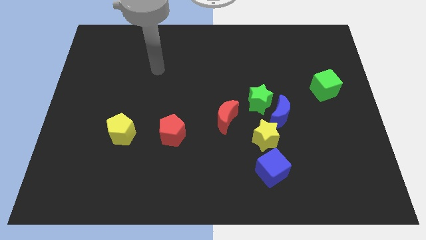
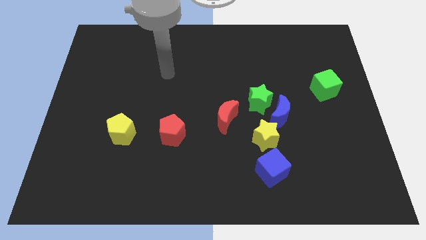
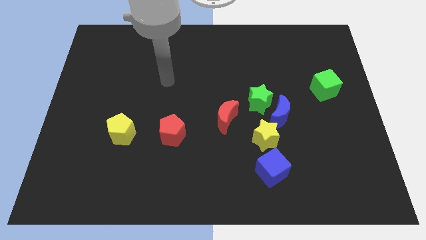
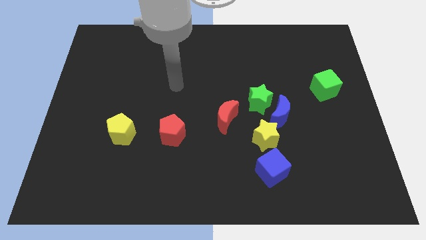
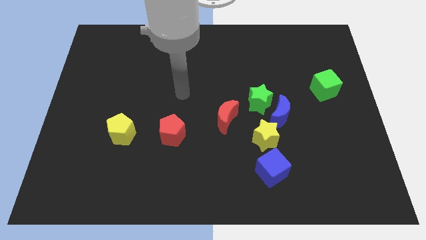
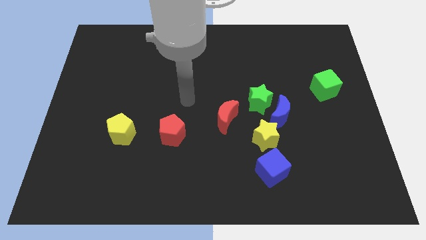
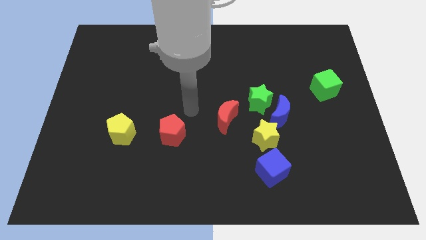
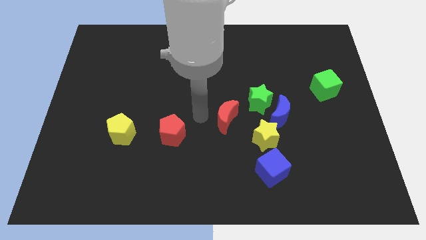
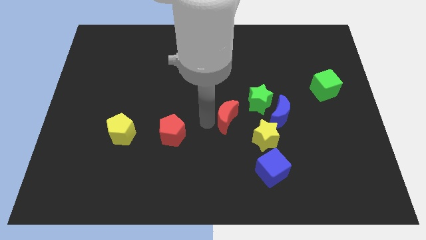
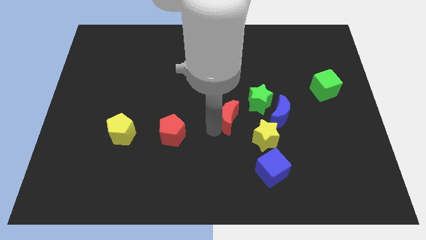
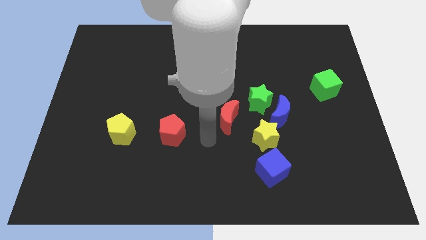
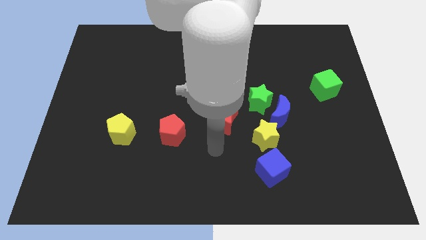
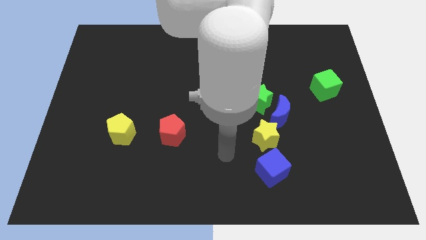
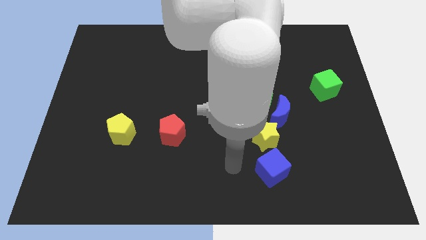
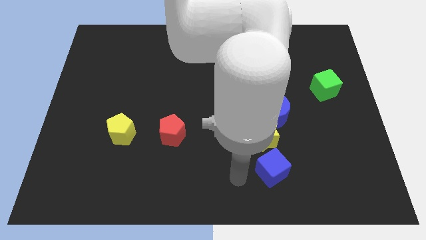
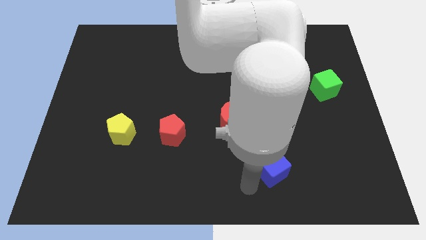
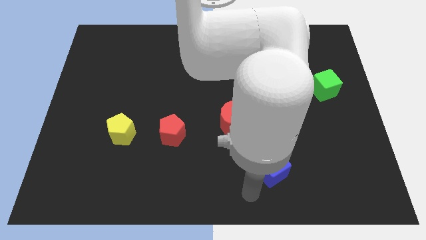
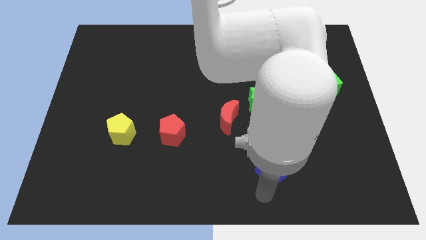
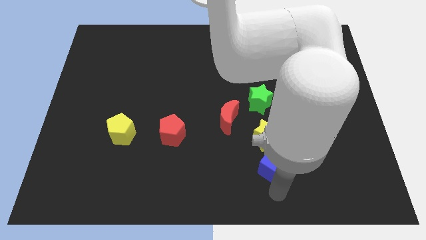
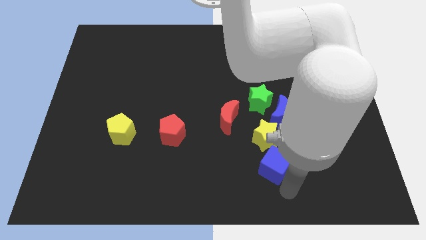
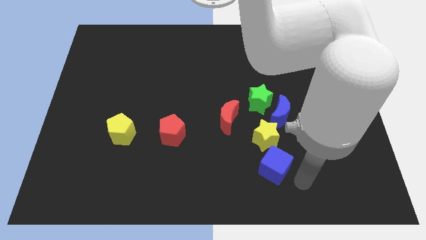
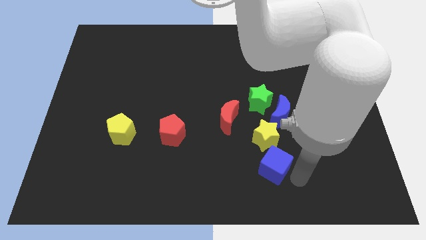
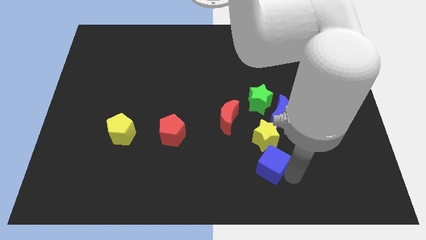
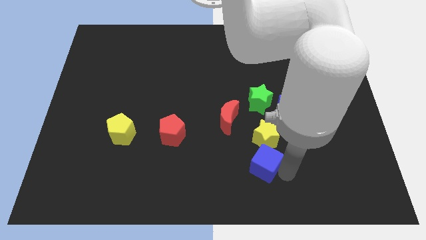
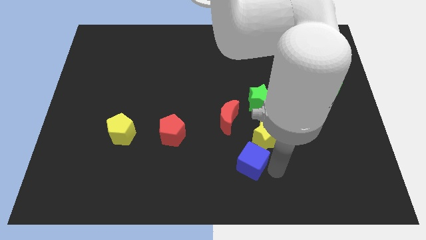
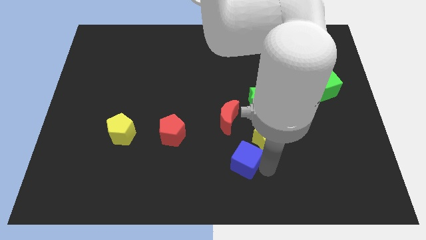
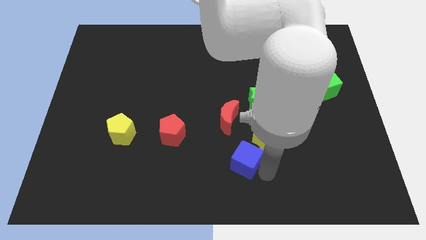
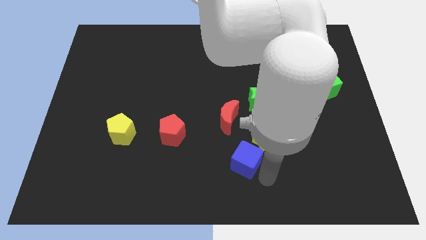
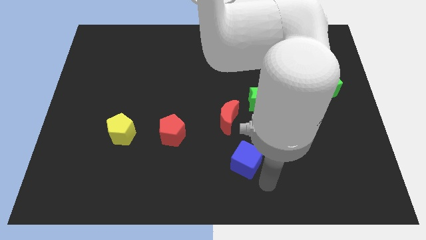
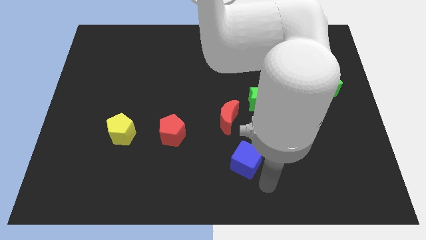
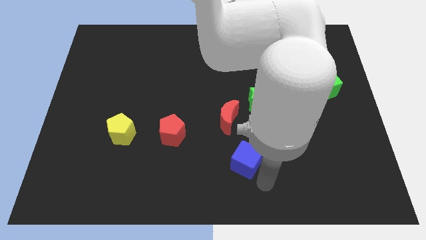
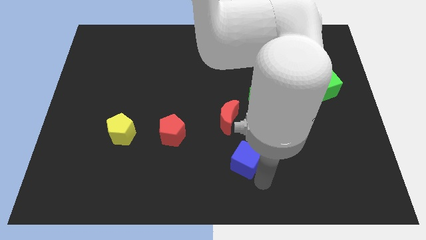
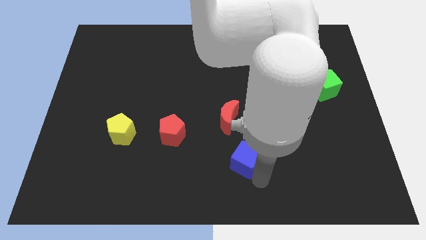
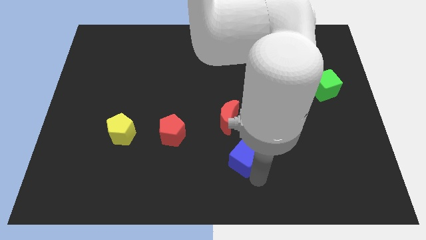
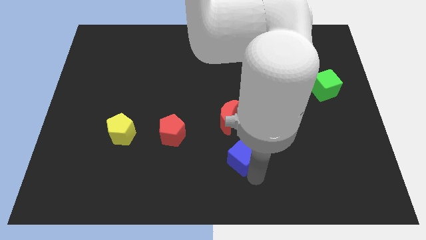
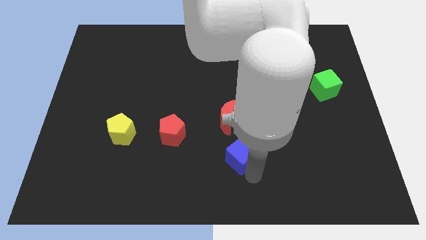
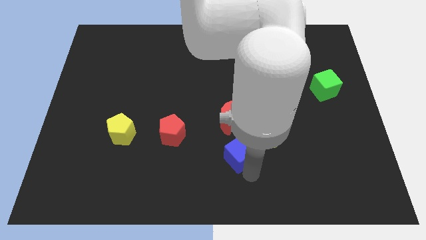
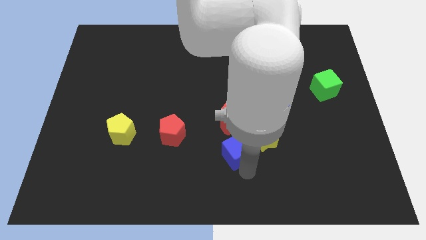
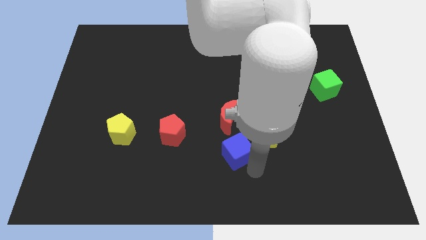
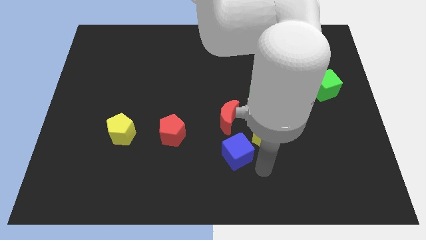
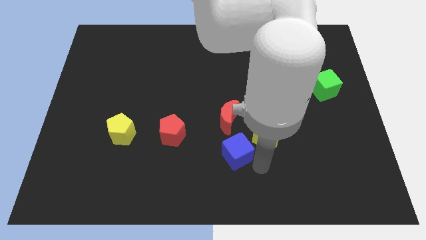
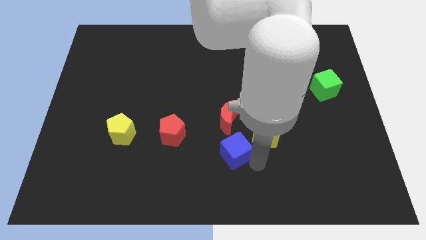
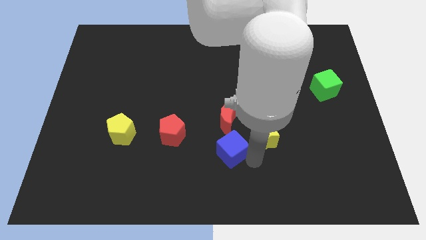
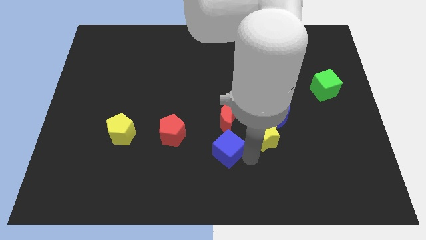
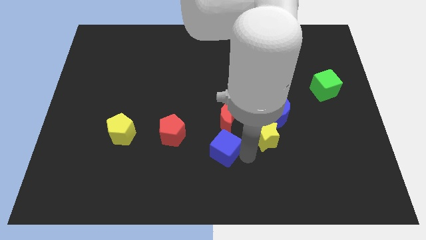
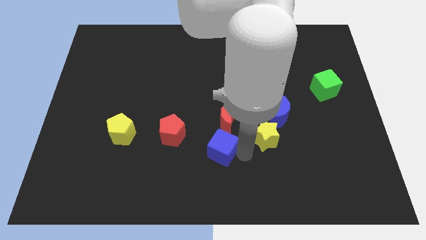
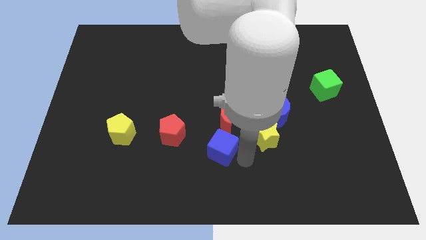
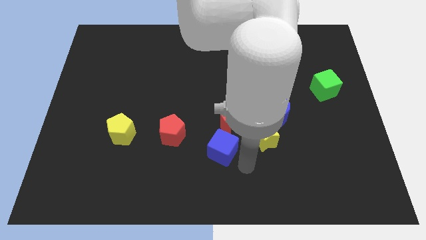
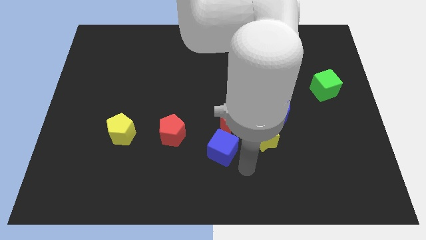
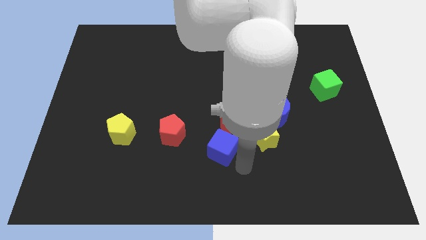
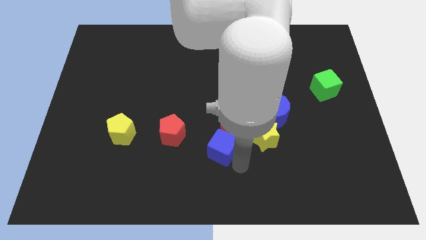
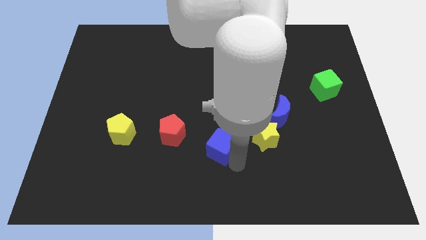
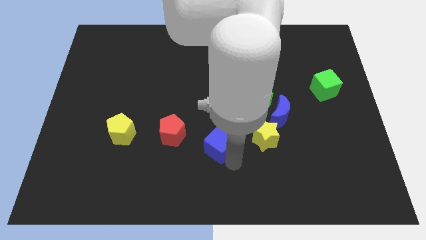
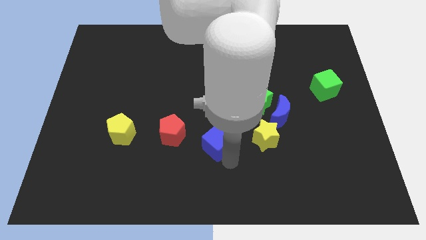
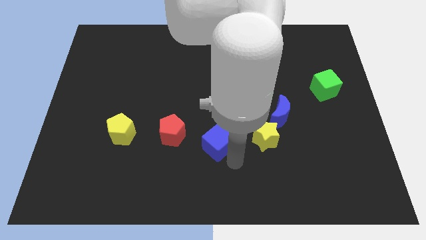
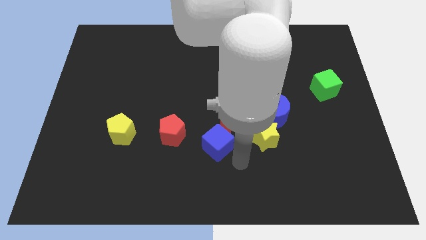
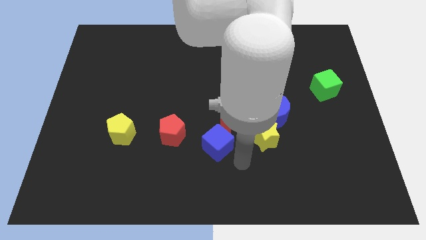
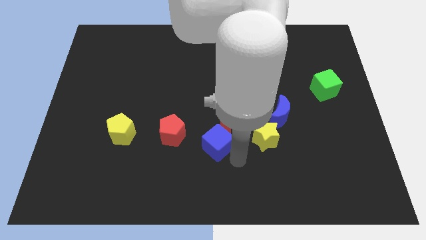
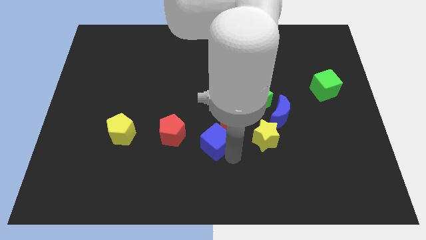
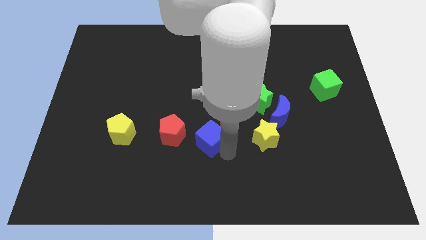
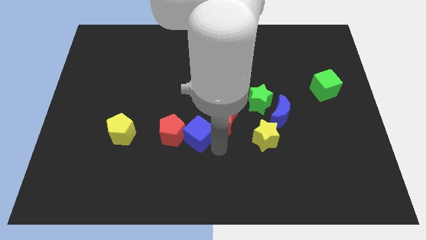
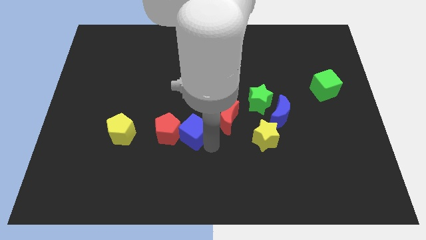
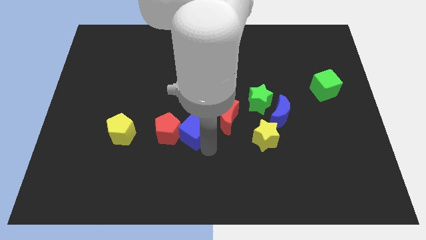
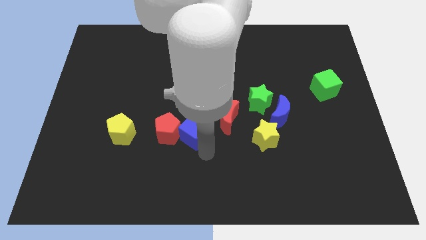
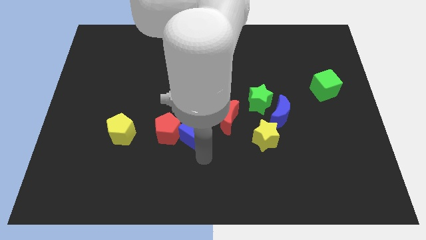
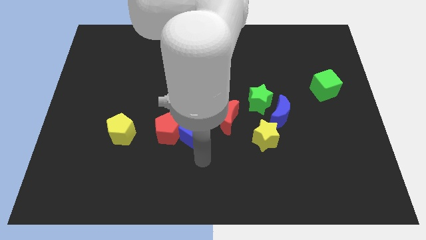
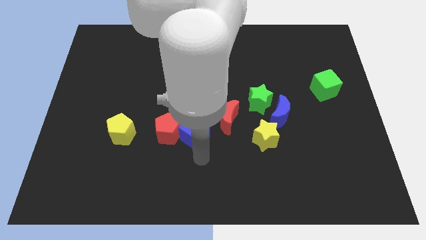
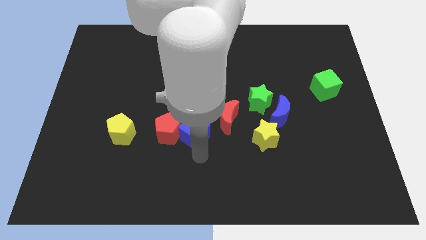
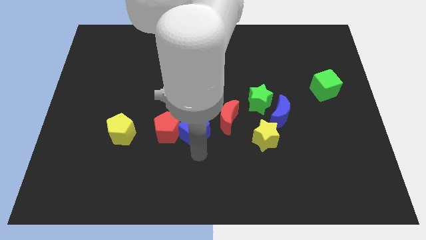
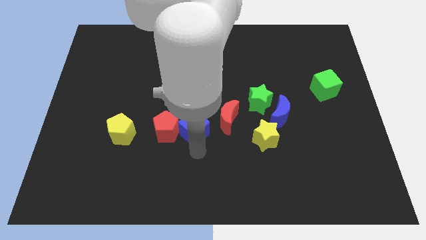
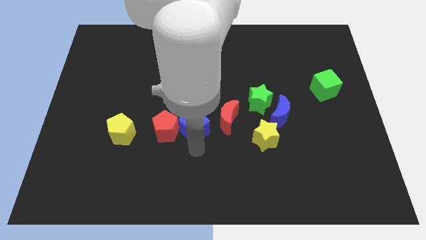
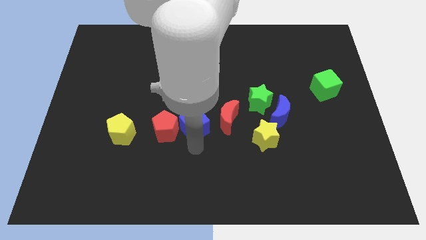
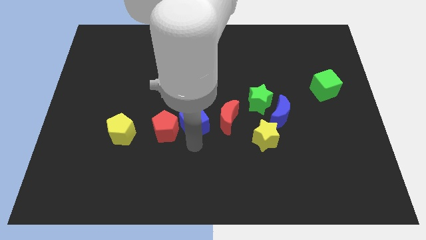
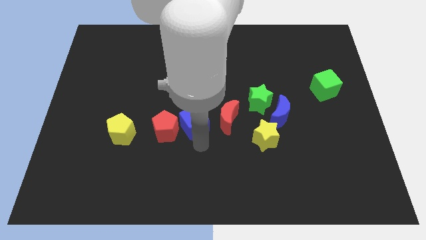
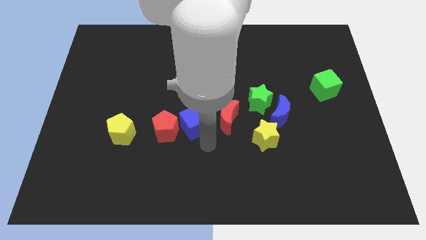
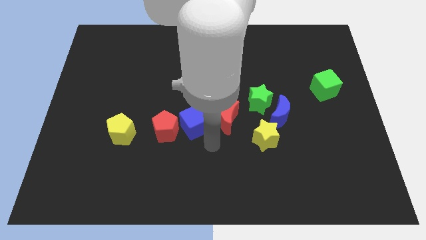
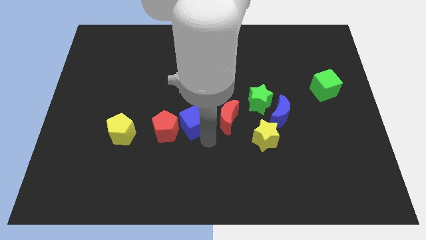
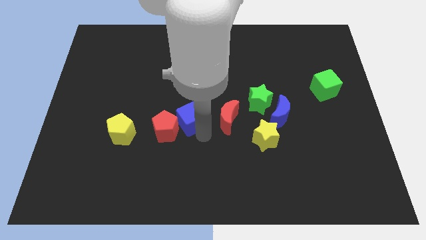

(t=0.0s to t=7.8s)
slide the blue cube upwards and to the left diagonally

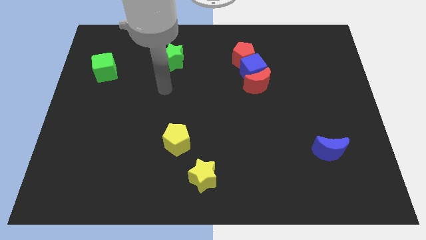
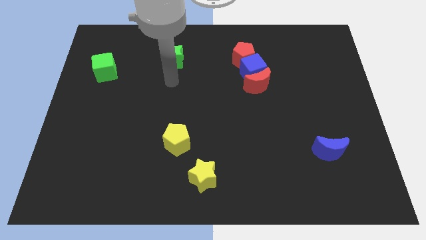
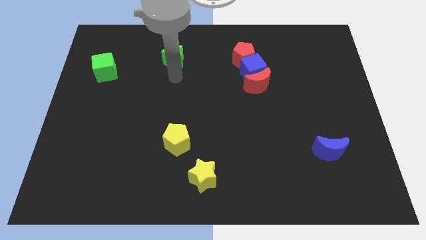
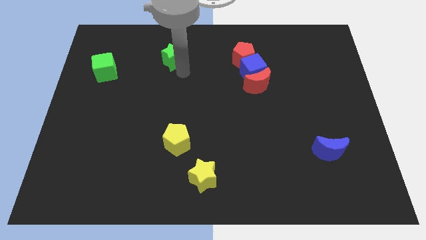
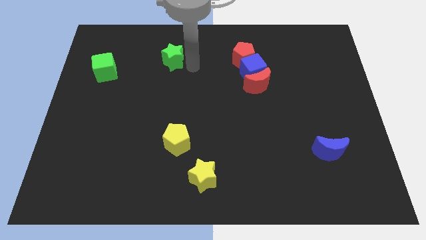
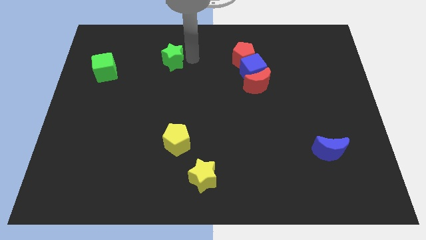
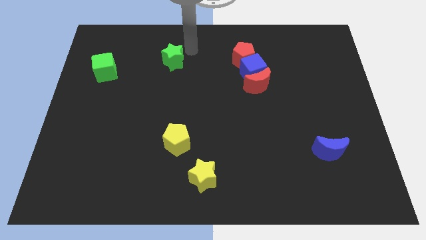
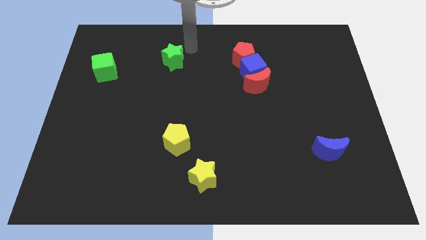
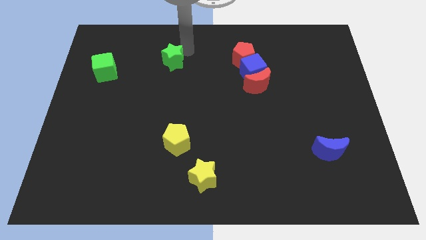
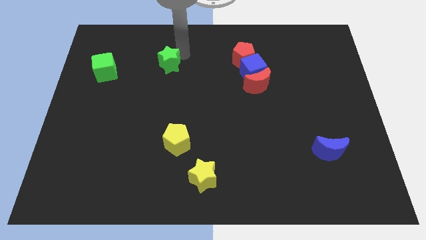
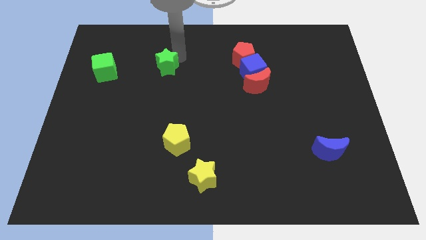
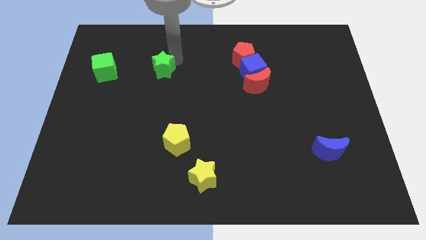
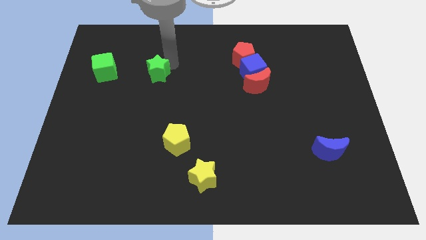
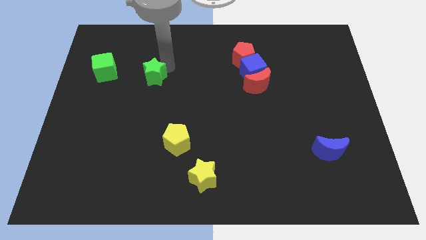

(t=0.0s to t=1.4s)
move the green star down and then left a bit
